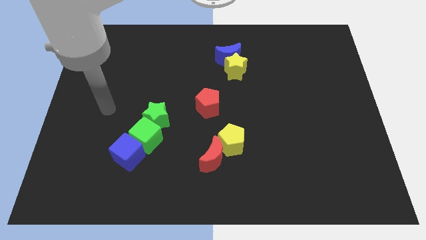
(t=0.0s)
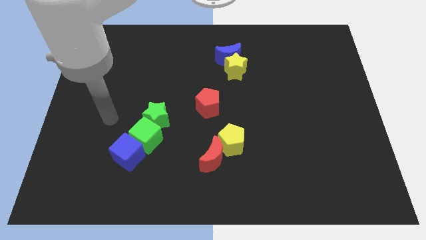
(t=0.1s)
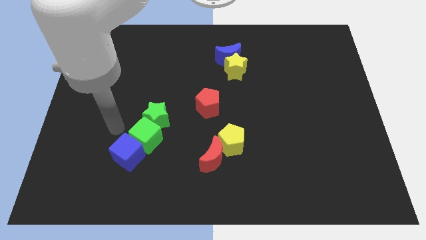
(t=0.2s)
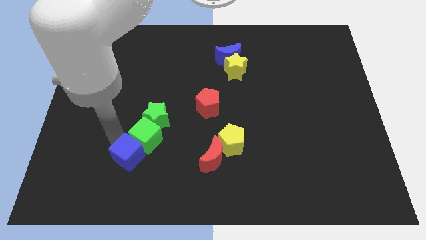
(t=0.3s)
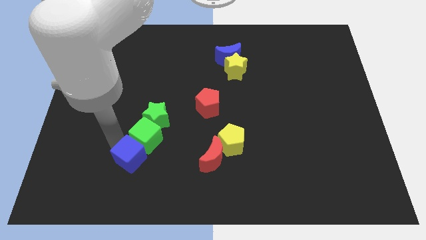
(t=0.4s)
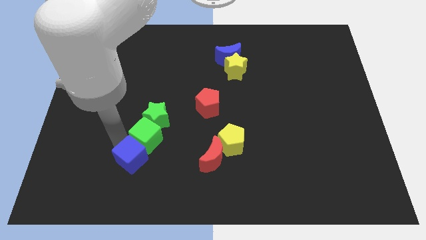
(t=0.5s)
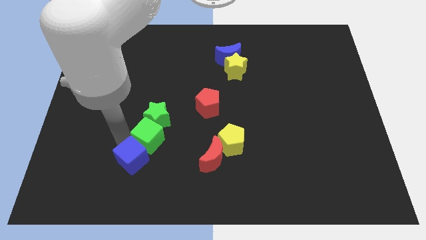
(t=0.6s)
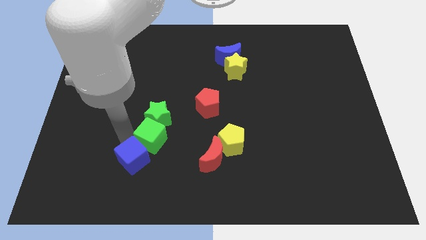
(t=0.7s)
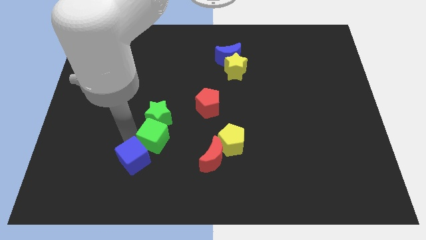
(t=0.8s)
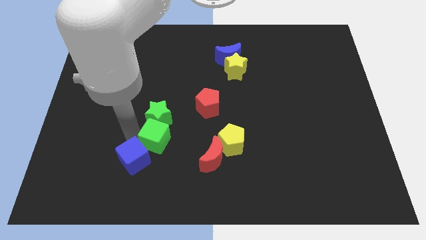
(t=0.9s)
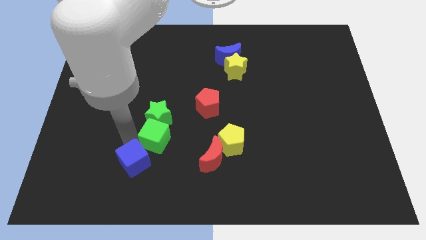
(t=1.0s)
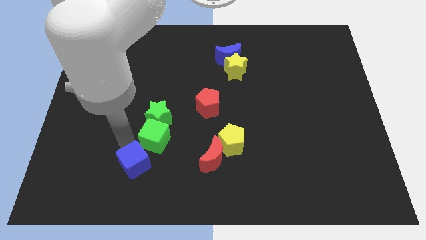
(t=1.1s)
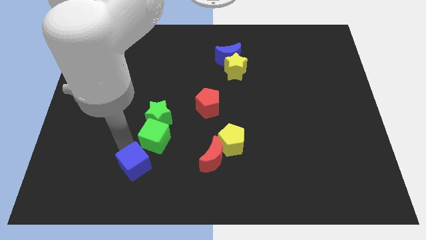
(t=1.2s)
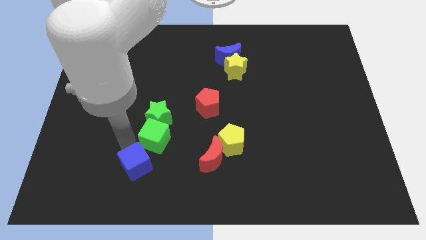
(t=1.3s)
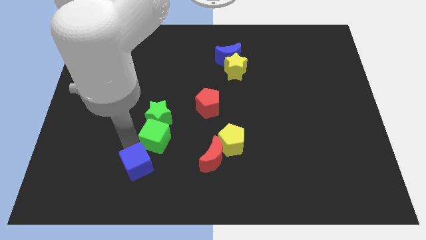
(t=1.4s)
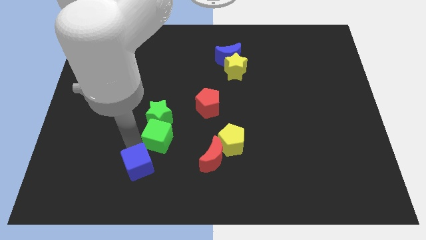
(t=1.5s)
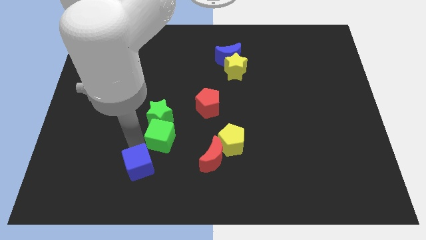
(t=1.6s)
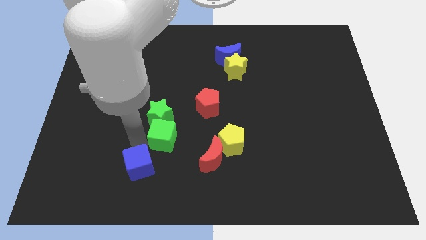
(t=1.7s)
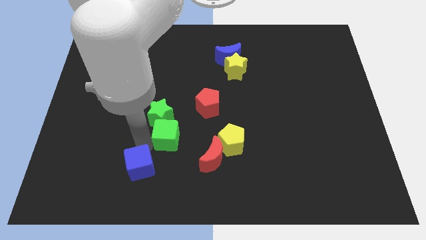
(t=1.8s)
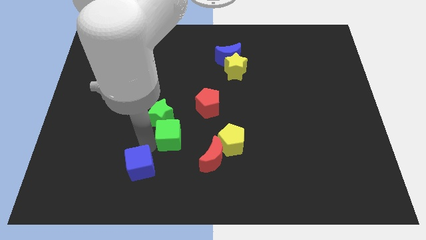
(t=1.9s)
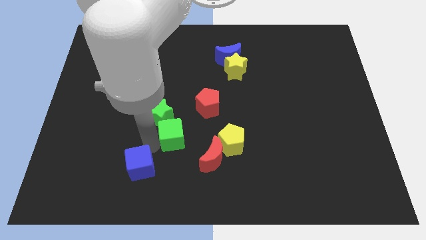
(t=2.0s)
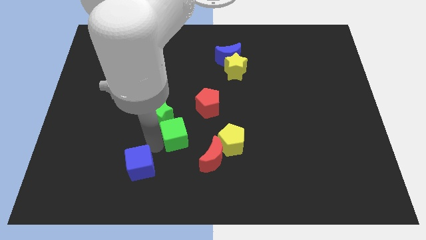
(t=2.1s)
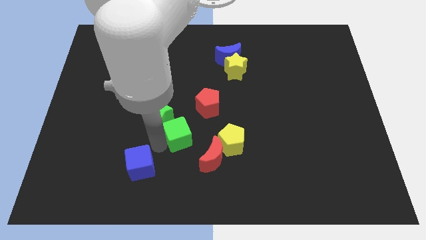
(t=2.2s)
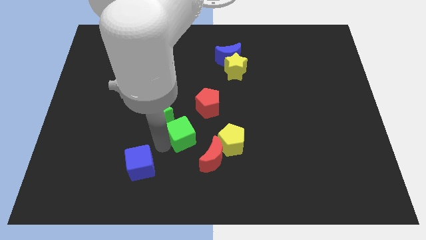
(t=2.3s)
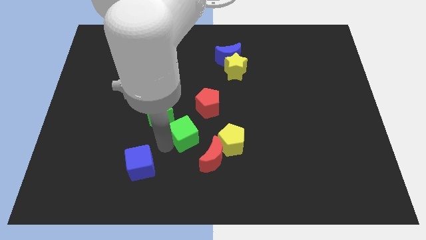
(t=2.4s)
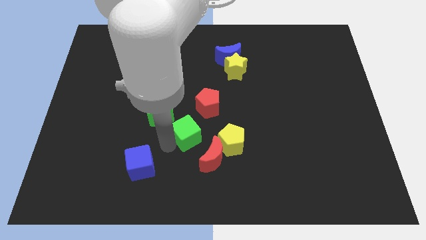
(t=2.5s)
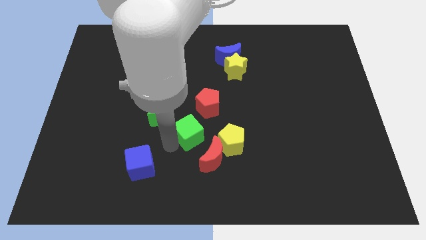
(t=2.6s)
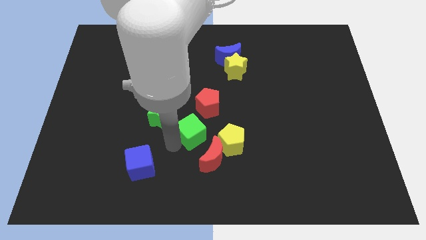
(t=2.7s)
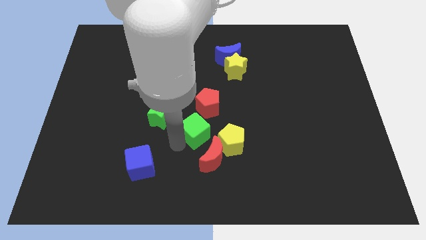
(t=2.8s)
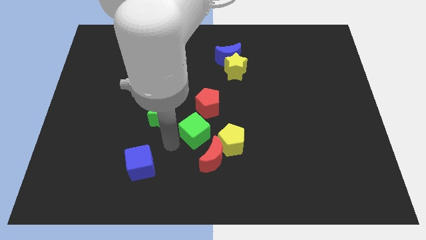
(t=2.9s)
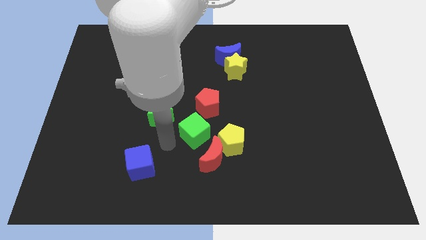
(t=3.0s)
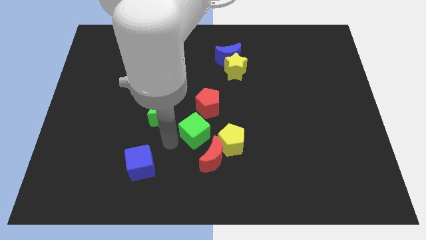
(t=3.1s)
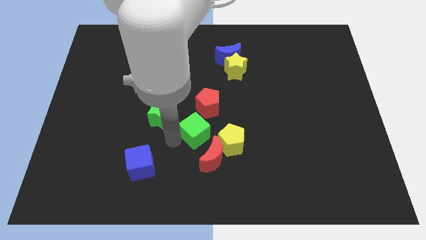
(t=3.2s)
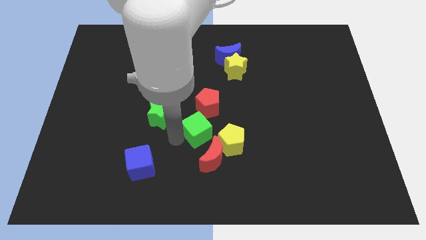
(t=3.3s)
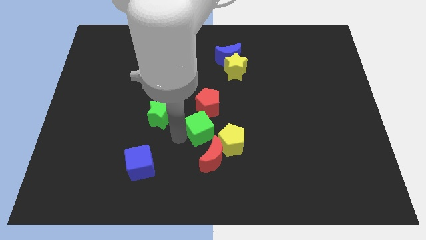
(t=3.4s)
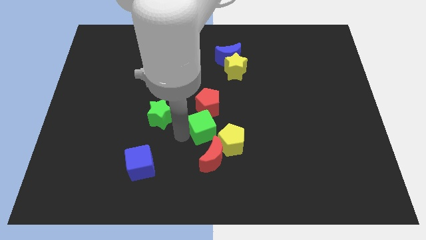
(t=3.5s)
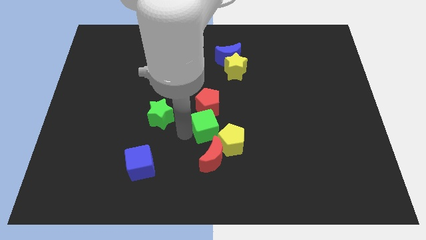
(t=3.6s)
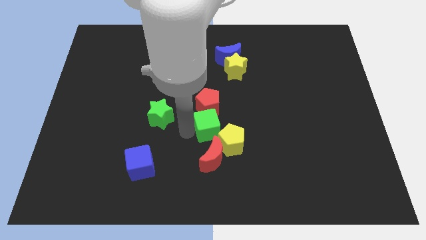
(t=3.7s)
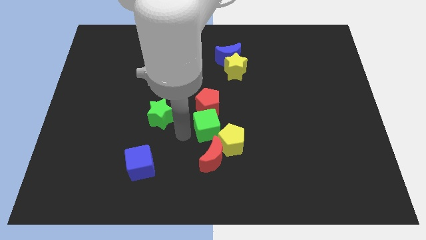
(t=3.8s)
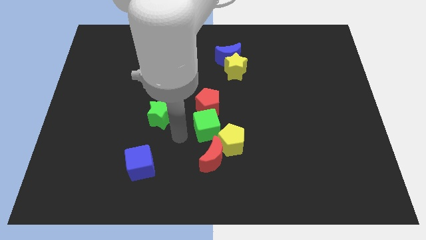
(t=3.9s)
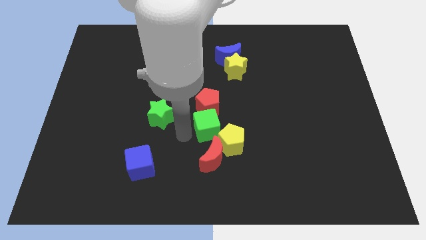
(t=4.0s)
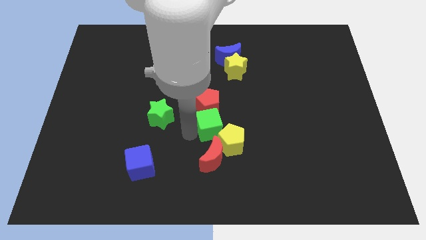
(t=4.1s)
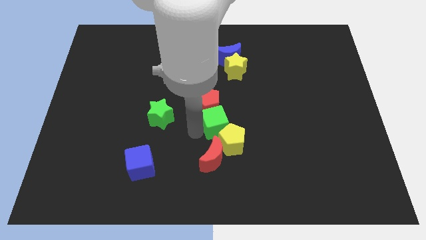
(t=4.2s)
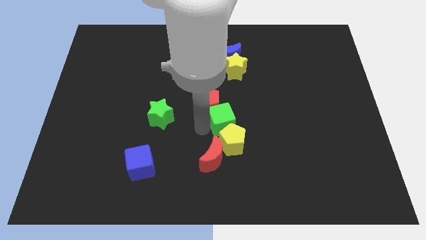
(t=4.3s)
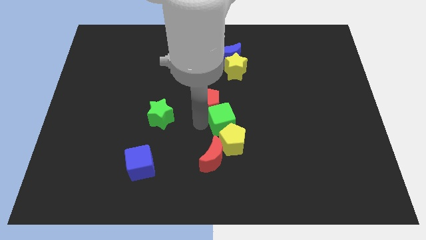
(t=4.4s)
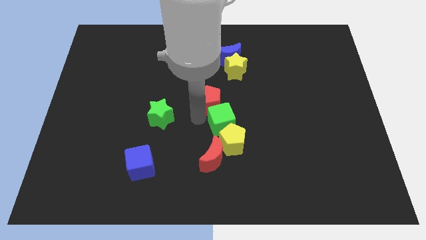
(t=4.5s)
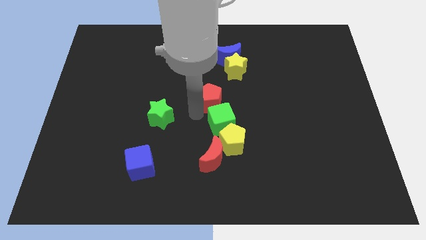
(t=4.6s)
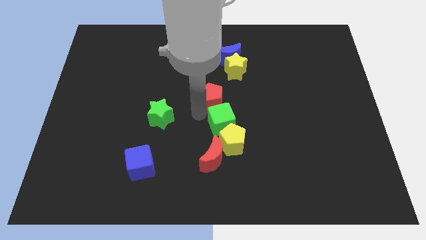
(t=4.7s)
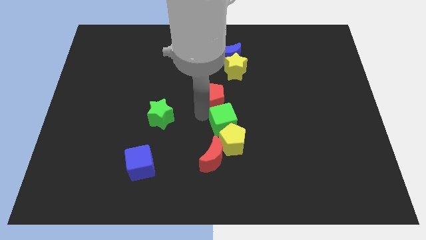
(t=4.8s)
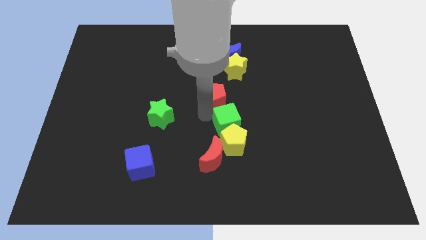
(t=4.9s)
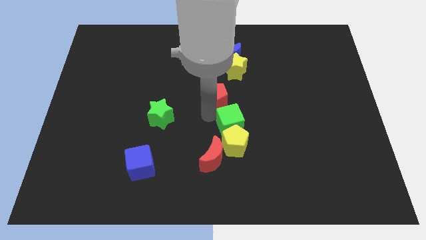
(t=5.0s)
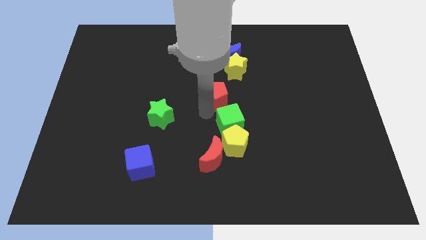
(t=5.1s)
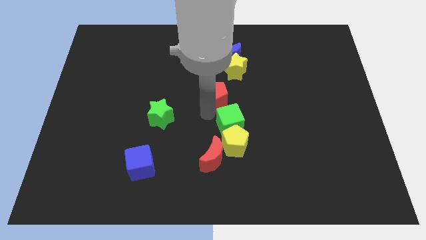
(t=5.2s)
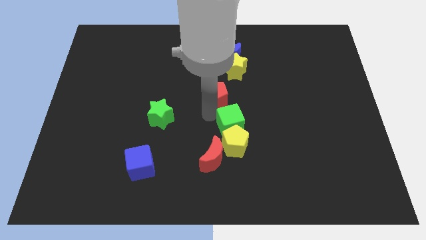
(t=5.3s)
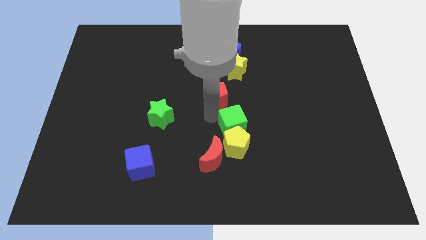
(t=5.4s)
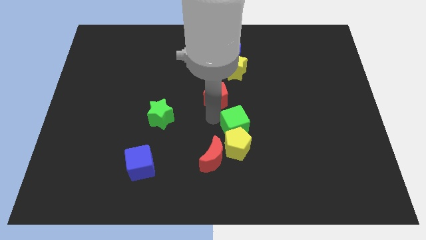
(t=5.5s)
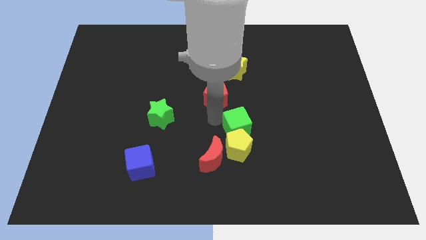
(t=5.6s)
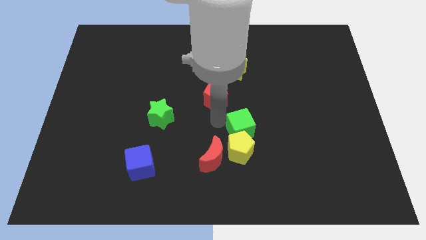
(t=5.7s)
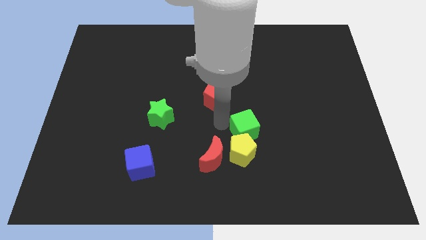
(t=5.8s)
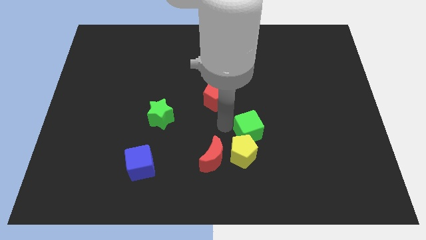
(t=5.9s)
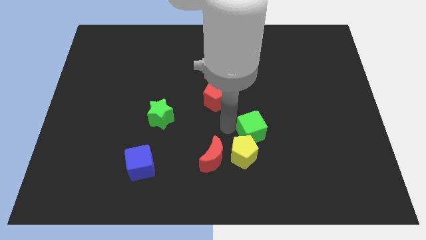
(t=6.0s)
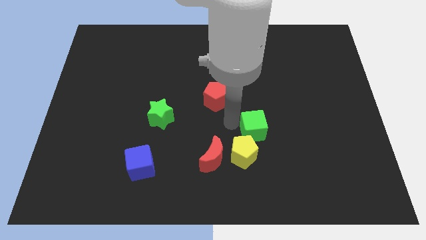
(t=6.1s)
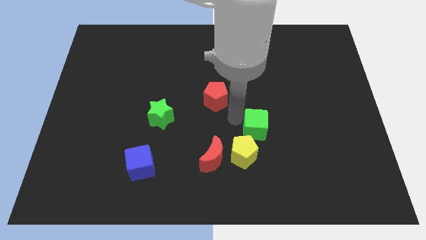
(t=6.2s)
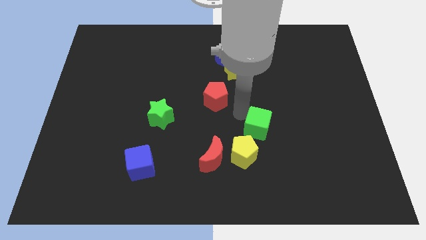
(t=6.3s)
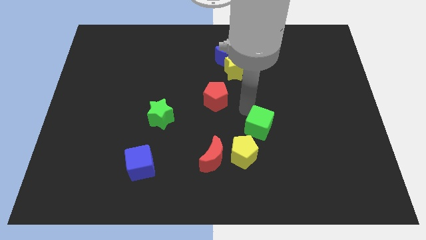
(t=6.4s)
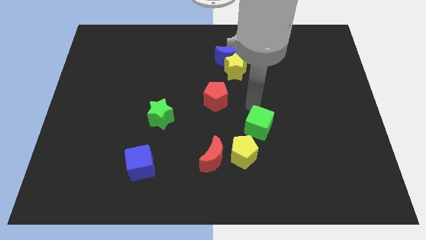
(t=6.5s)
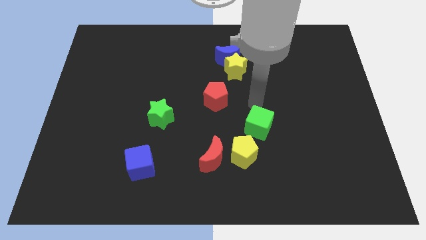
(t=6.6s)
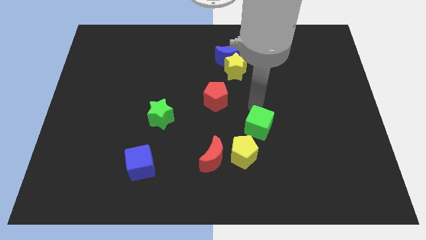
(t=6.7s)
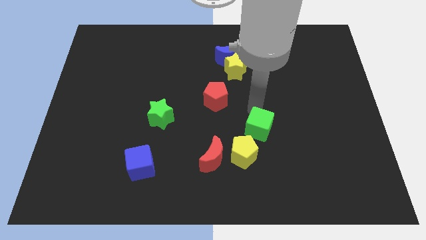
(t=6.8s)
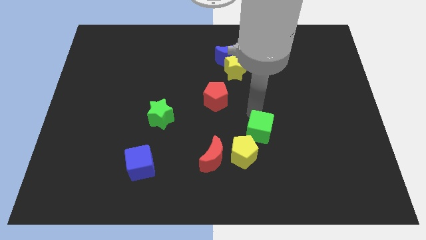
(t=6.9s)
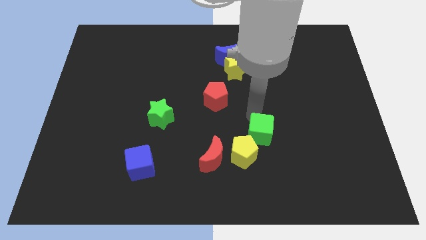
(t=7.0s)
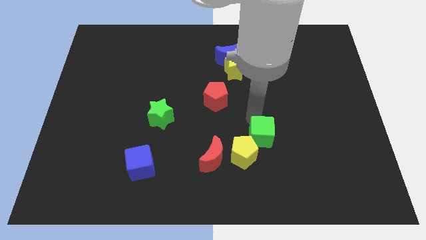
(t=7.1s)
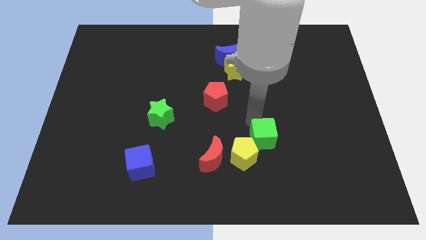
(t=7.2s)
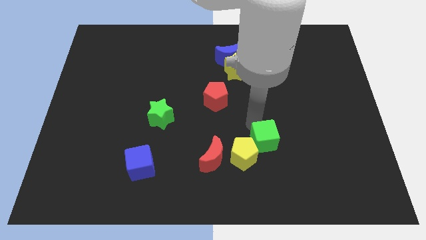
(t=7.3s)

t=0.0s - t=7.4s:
slide the green cube to the right of the red moon
